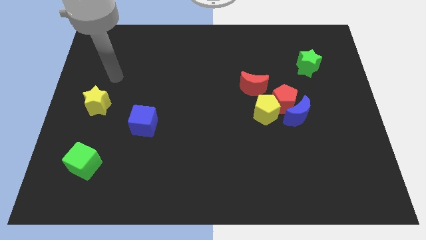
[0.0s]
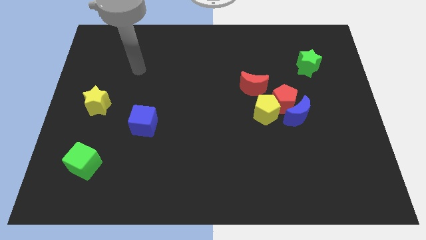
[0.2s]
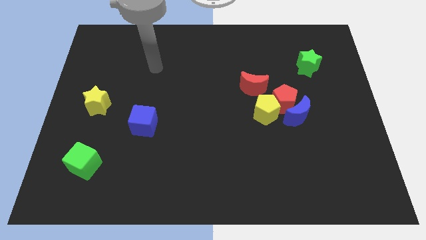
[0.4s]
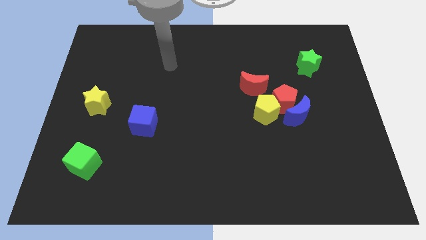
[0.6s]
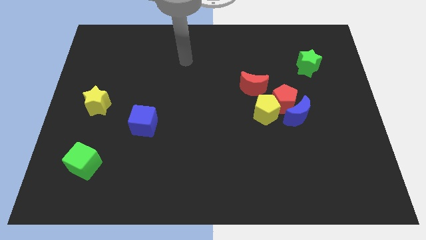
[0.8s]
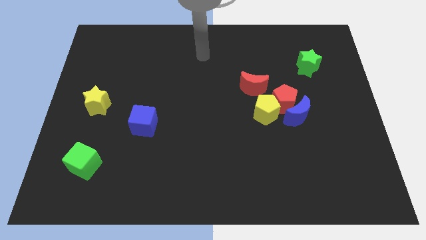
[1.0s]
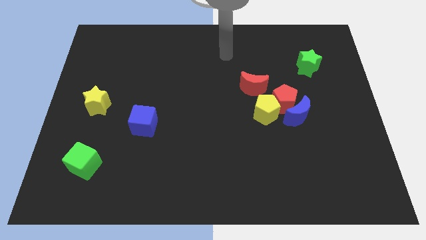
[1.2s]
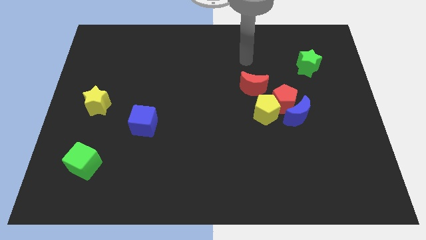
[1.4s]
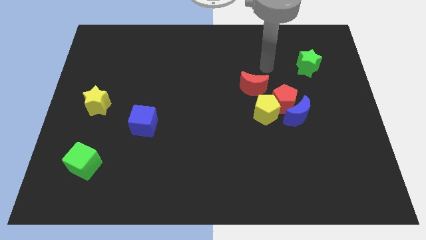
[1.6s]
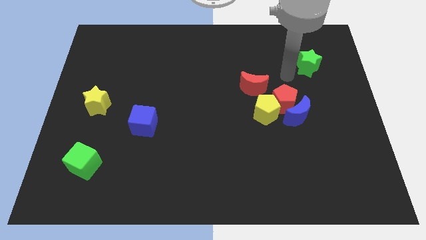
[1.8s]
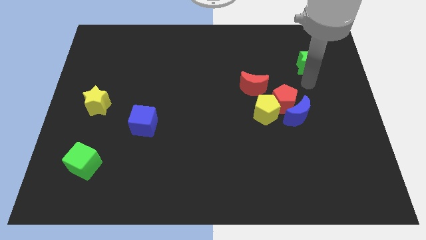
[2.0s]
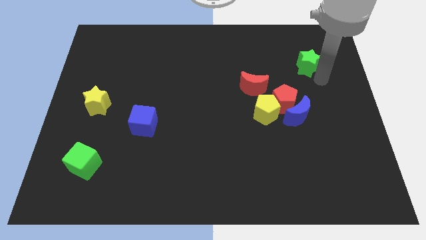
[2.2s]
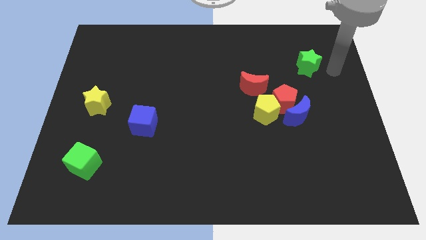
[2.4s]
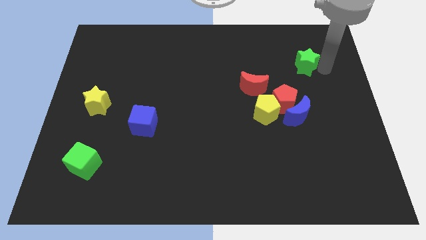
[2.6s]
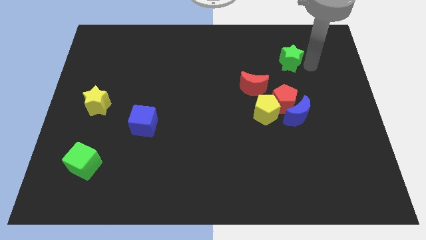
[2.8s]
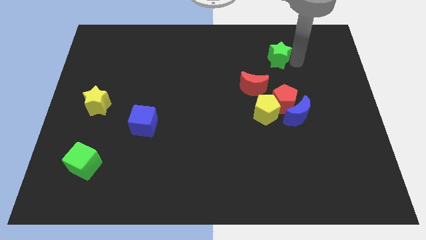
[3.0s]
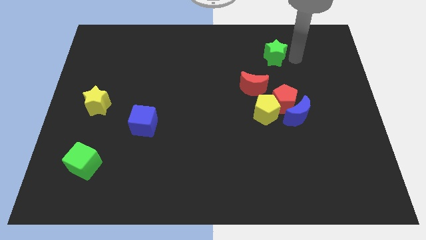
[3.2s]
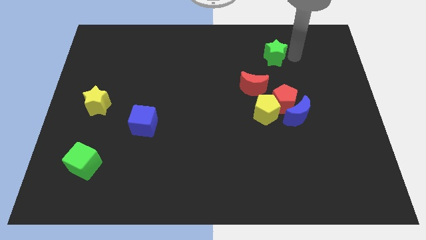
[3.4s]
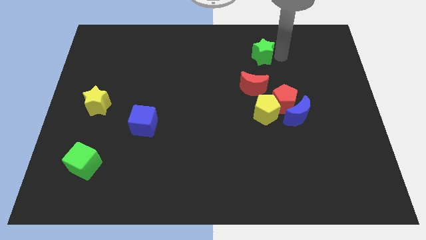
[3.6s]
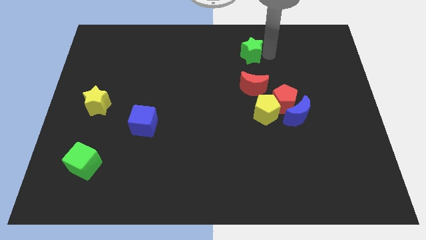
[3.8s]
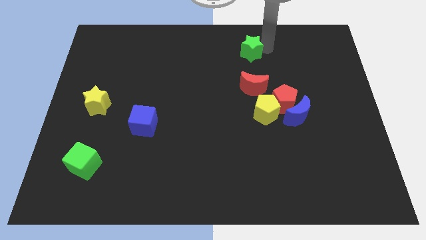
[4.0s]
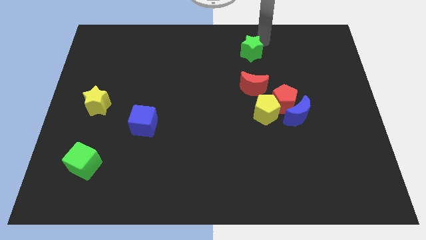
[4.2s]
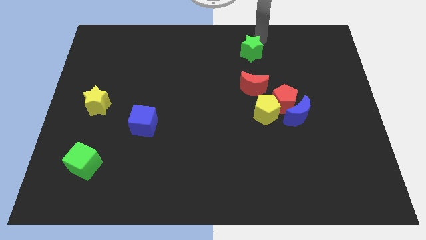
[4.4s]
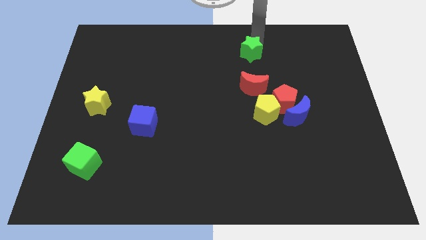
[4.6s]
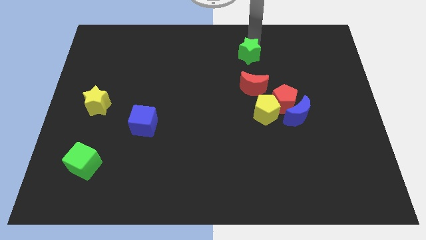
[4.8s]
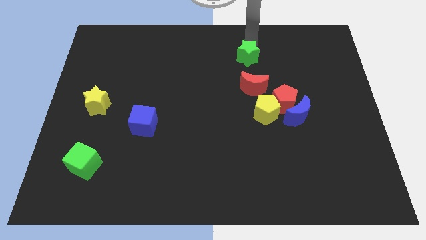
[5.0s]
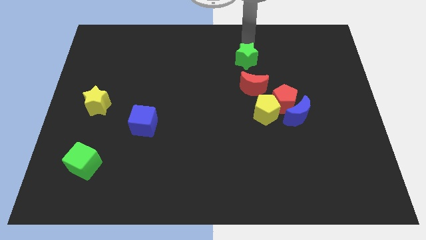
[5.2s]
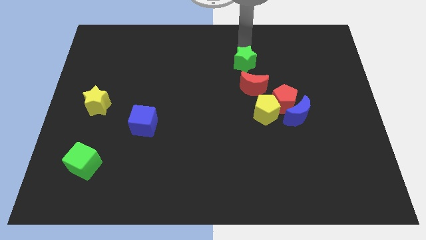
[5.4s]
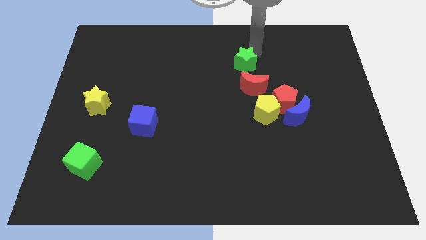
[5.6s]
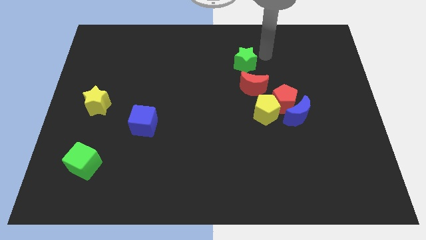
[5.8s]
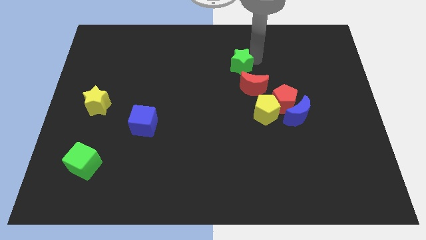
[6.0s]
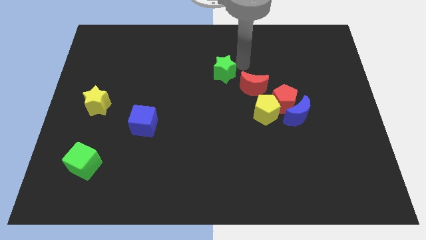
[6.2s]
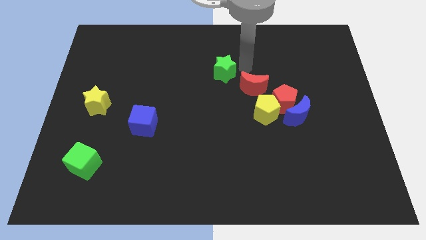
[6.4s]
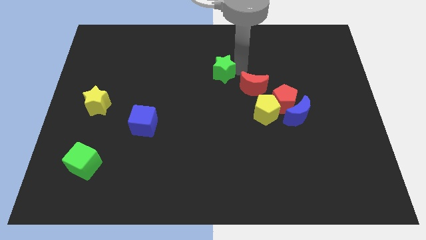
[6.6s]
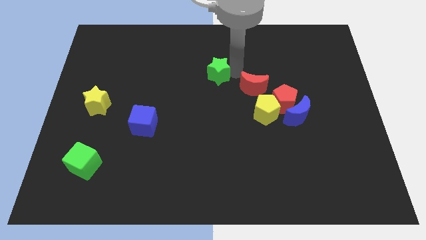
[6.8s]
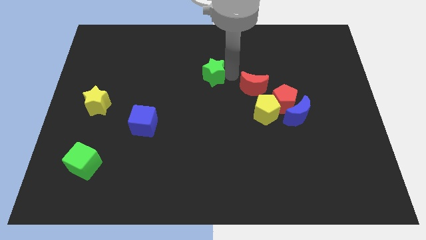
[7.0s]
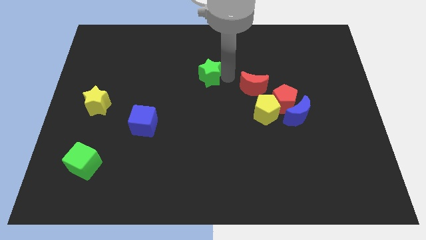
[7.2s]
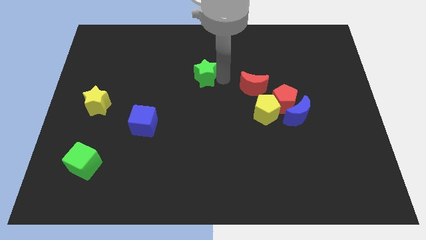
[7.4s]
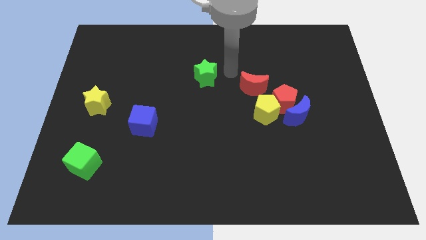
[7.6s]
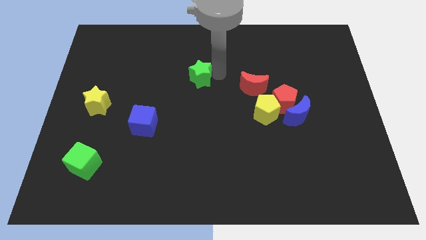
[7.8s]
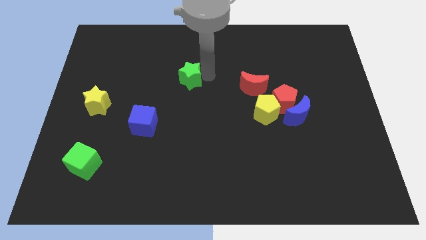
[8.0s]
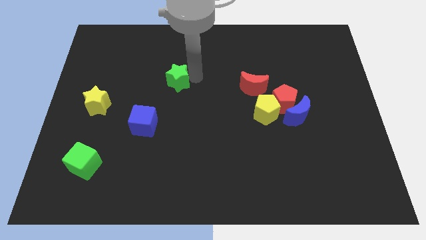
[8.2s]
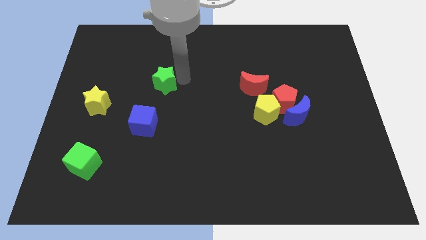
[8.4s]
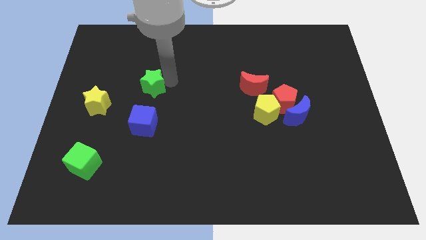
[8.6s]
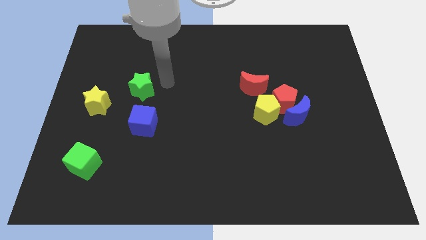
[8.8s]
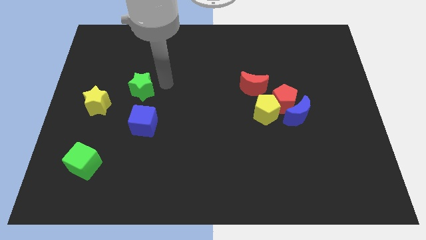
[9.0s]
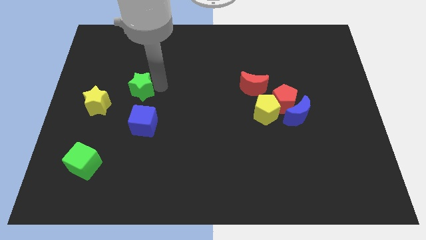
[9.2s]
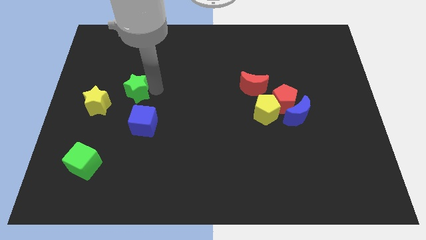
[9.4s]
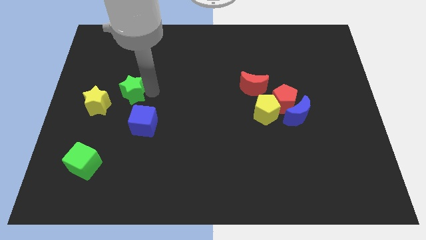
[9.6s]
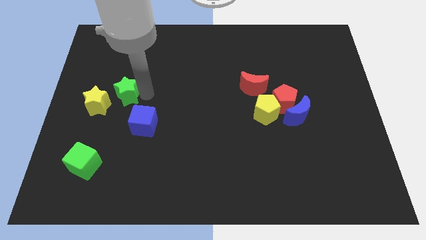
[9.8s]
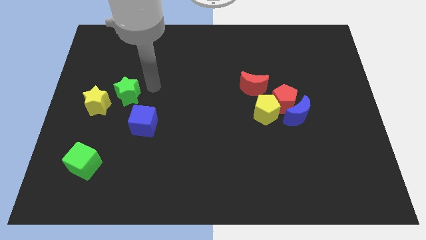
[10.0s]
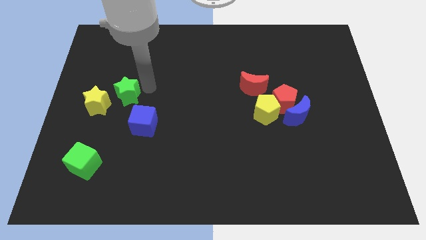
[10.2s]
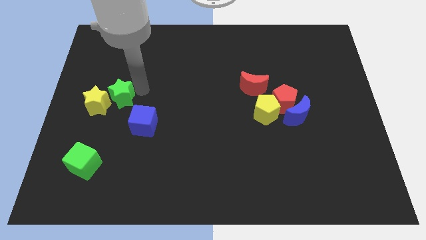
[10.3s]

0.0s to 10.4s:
slide the green star towards the yellow star

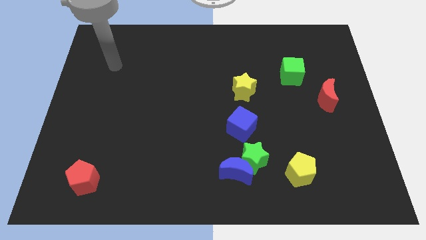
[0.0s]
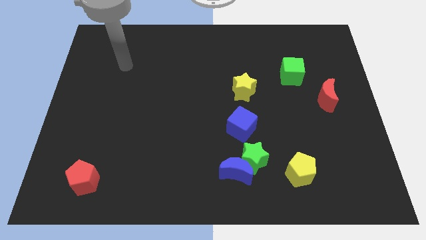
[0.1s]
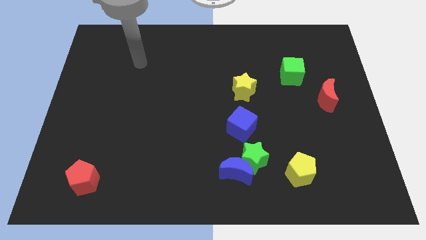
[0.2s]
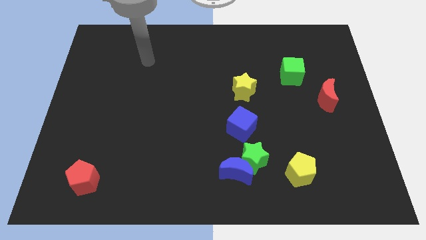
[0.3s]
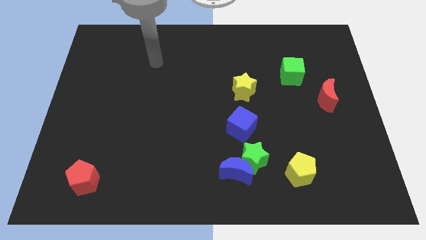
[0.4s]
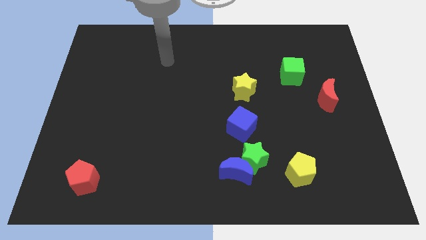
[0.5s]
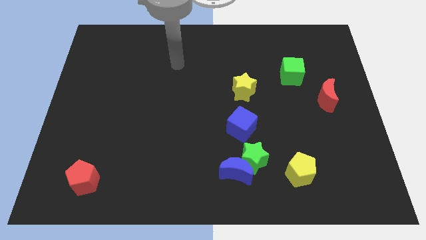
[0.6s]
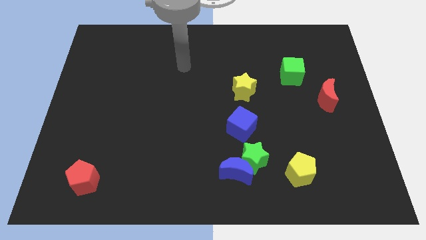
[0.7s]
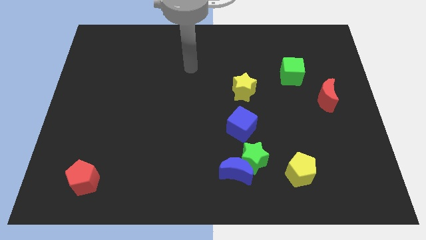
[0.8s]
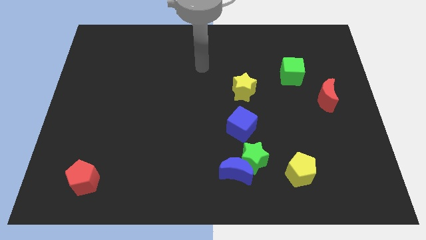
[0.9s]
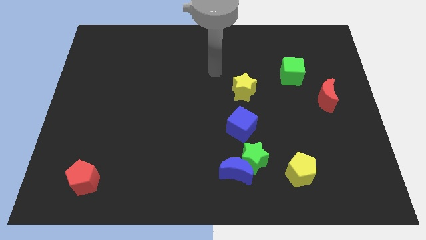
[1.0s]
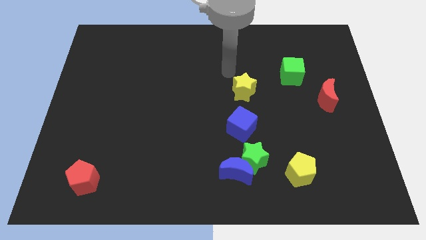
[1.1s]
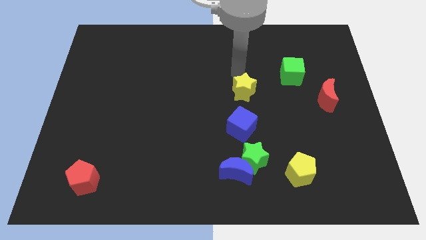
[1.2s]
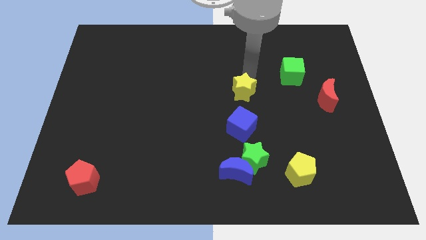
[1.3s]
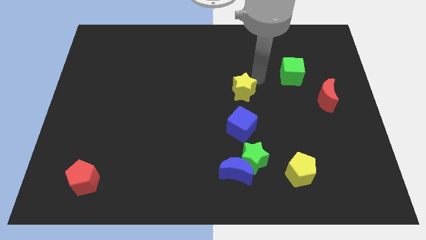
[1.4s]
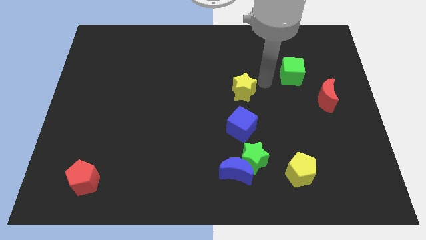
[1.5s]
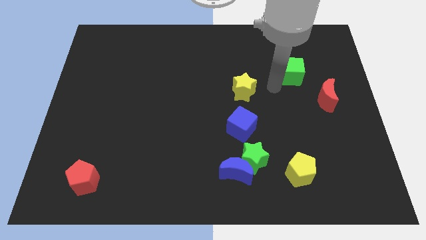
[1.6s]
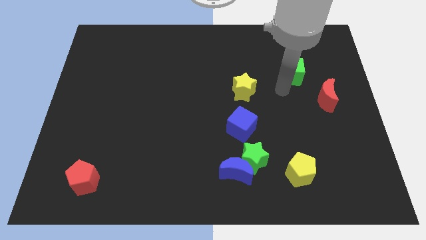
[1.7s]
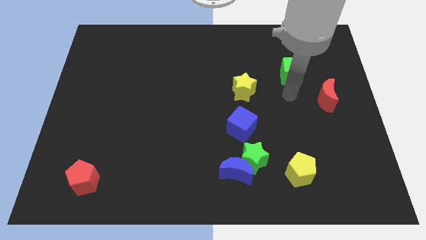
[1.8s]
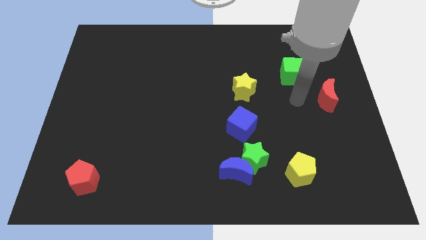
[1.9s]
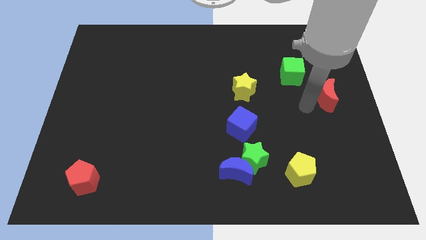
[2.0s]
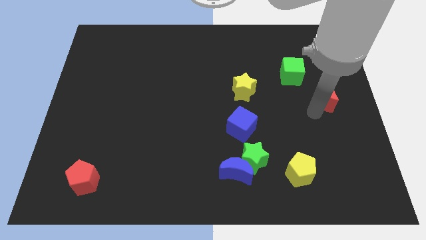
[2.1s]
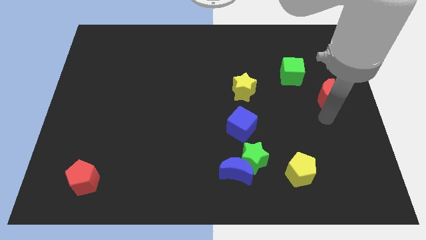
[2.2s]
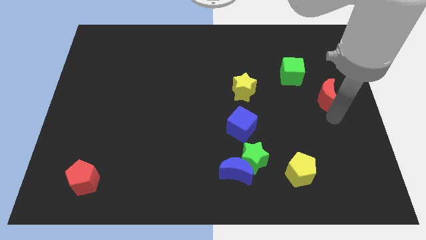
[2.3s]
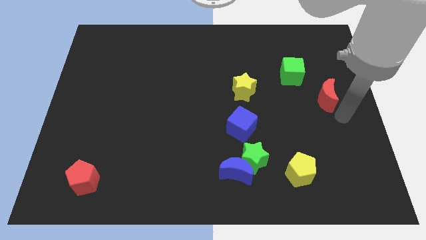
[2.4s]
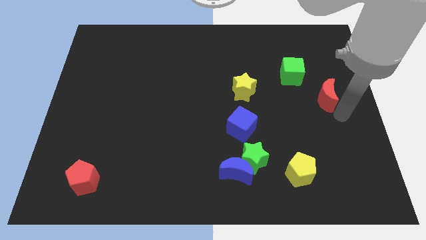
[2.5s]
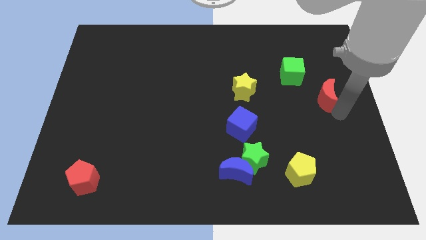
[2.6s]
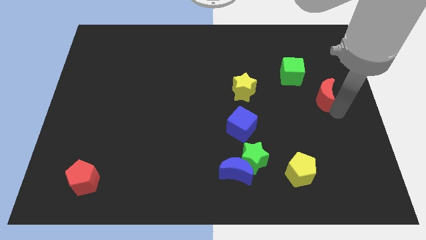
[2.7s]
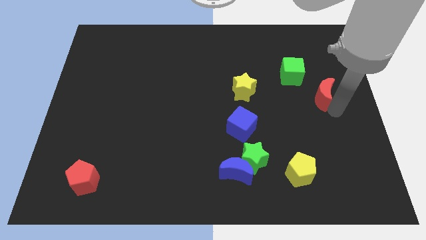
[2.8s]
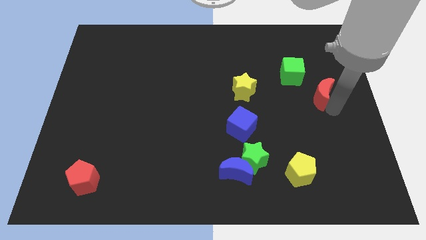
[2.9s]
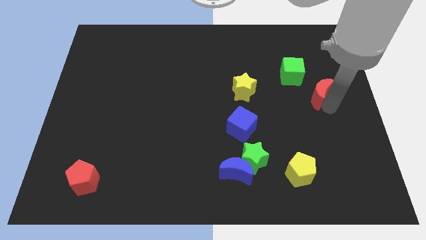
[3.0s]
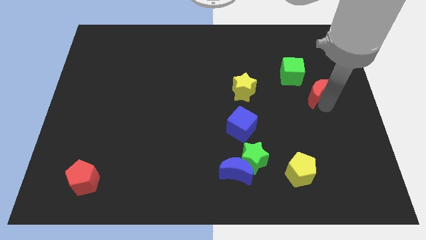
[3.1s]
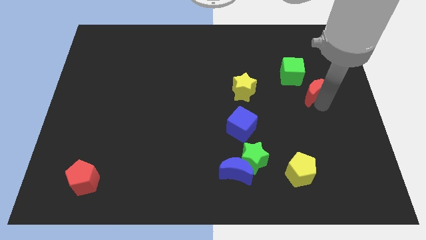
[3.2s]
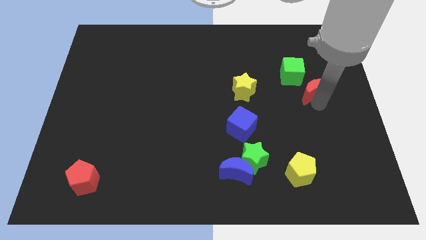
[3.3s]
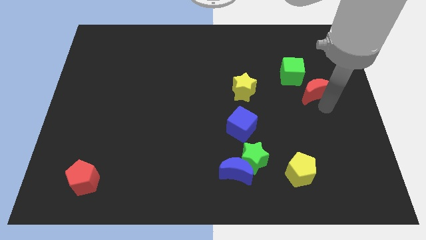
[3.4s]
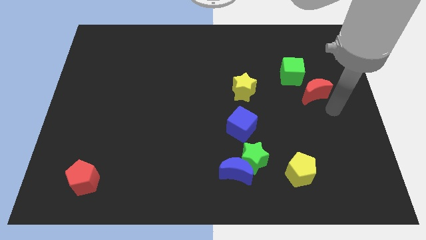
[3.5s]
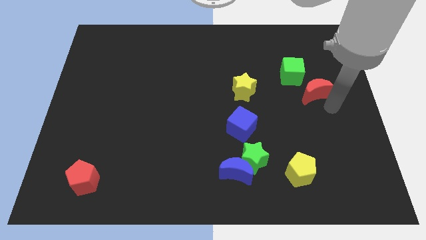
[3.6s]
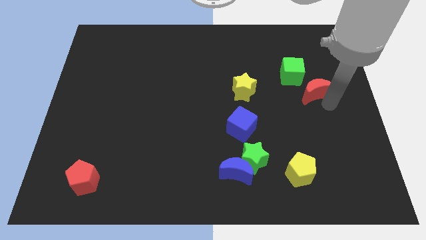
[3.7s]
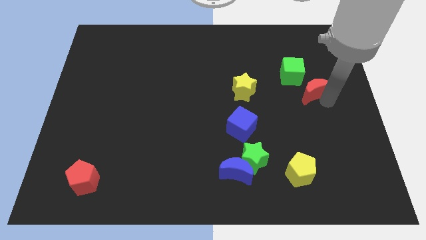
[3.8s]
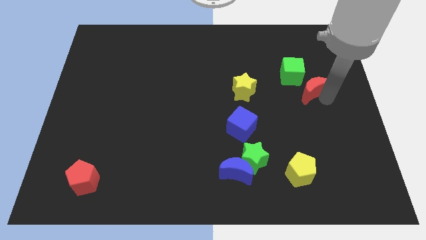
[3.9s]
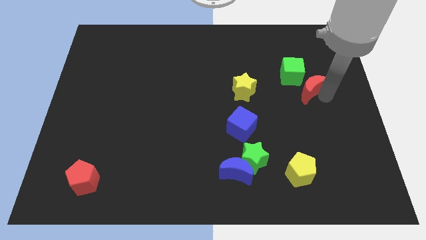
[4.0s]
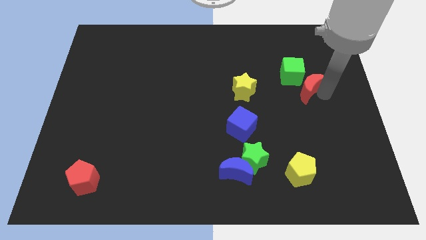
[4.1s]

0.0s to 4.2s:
push the red moon to the green cube
